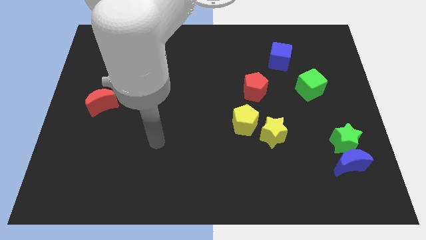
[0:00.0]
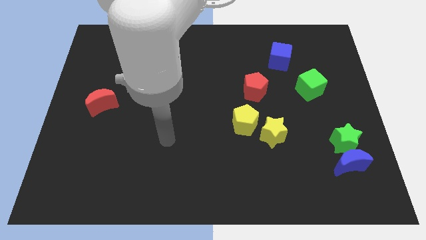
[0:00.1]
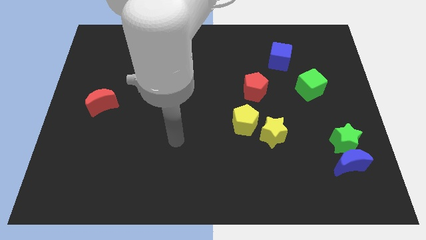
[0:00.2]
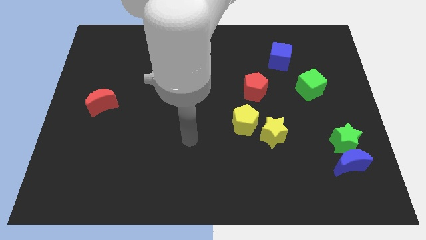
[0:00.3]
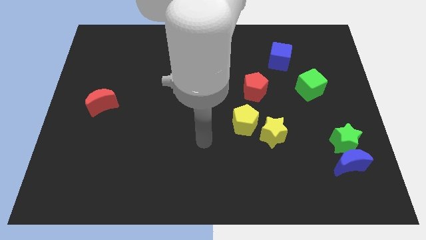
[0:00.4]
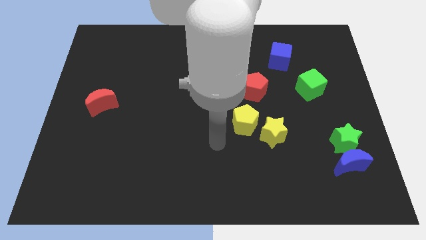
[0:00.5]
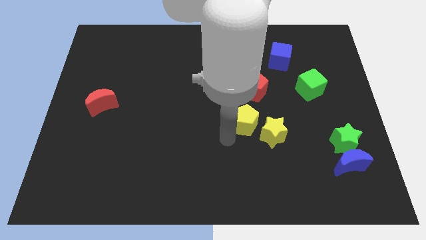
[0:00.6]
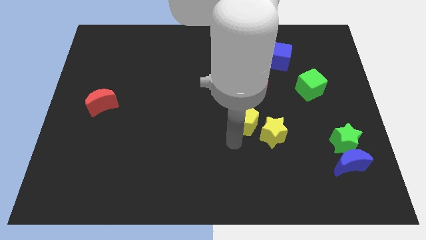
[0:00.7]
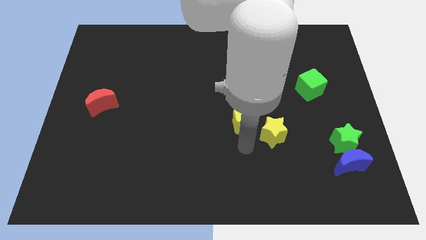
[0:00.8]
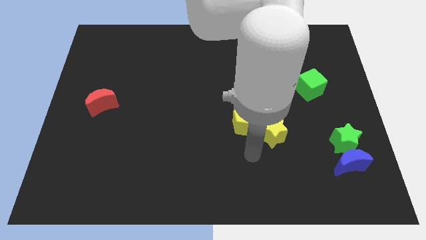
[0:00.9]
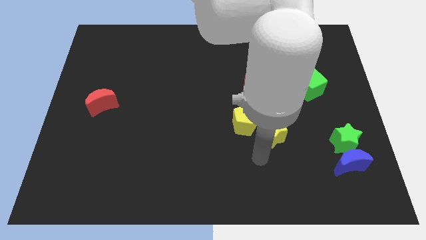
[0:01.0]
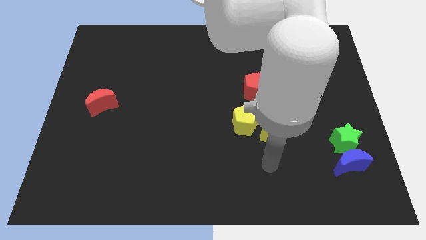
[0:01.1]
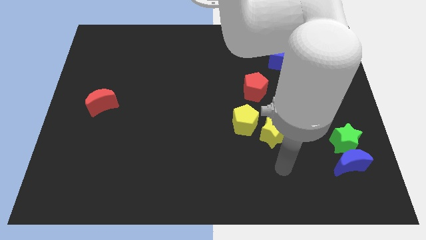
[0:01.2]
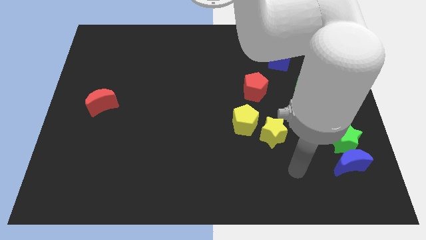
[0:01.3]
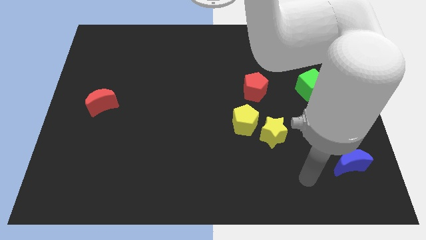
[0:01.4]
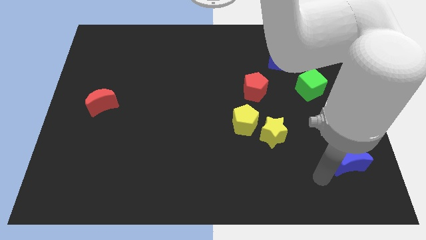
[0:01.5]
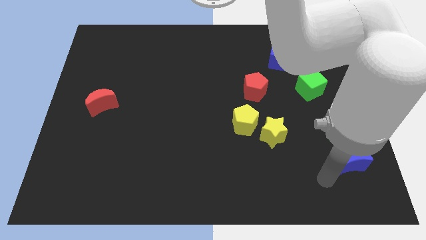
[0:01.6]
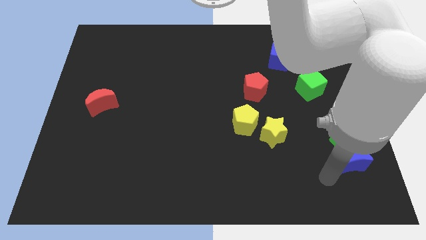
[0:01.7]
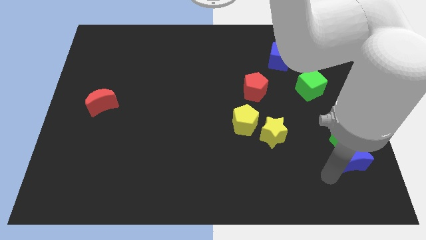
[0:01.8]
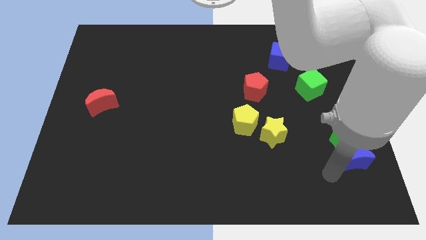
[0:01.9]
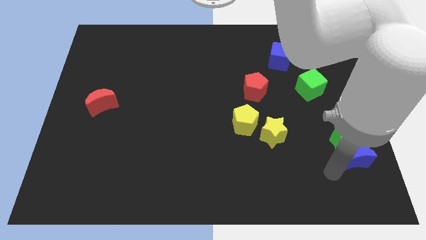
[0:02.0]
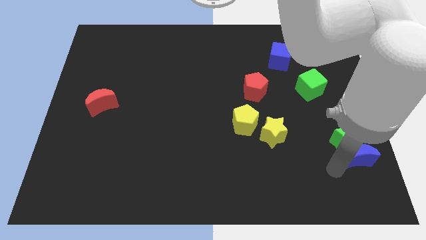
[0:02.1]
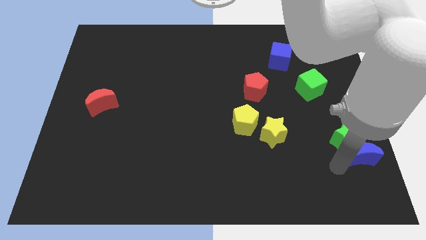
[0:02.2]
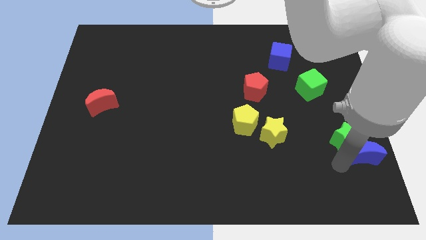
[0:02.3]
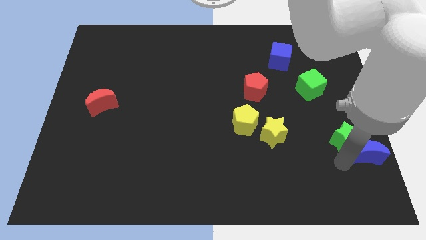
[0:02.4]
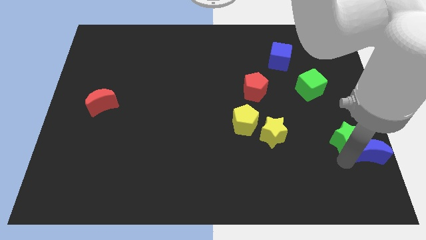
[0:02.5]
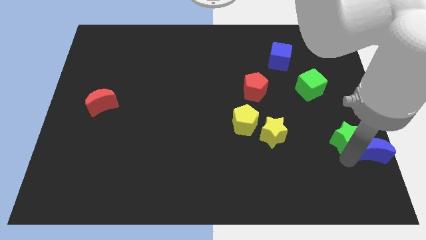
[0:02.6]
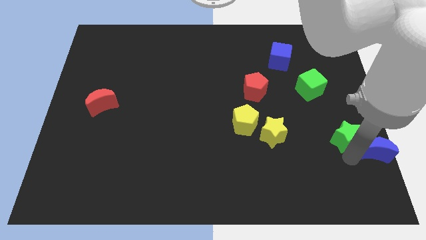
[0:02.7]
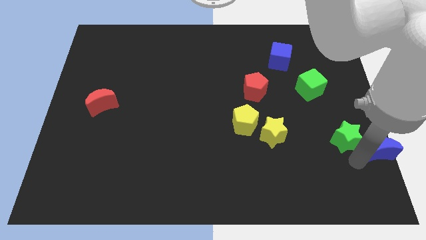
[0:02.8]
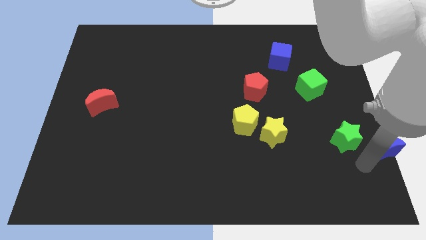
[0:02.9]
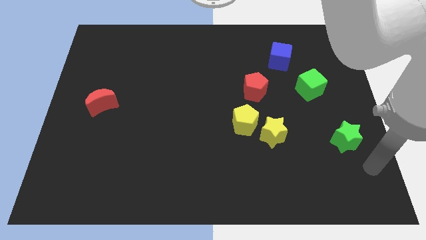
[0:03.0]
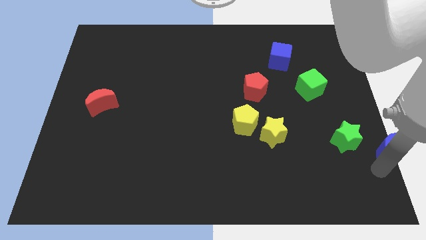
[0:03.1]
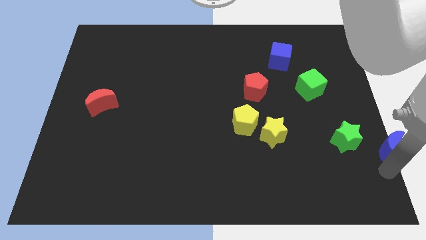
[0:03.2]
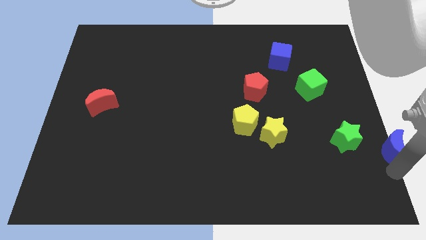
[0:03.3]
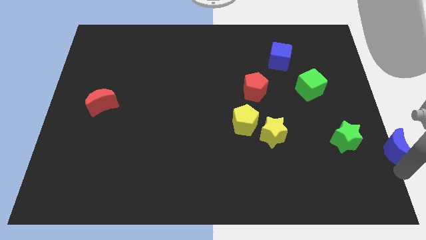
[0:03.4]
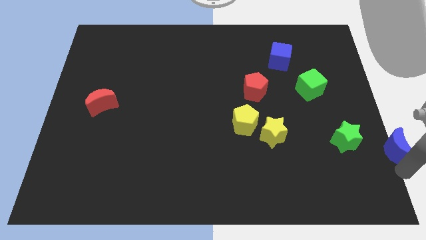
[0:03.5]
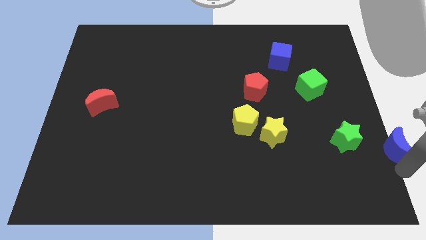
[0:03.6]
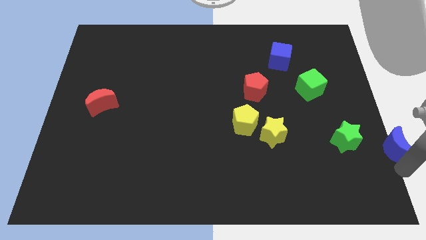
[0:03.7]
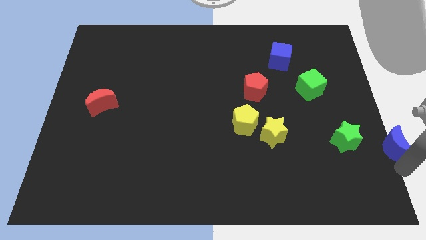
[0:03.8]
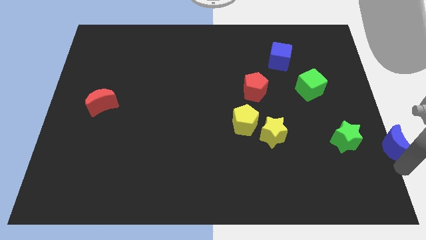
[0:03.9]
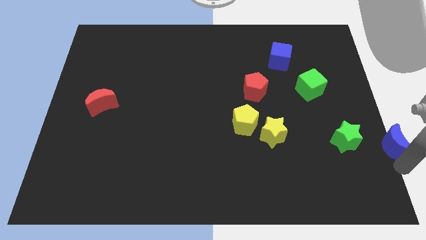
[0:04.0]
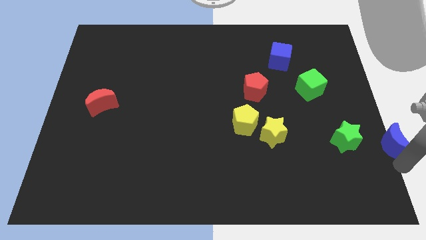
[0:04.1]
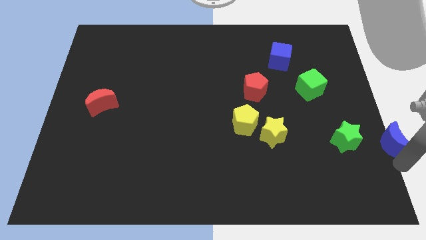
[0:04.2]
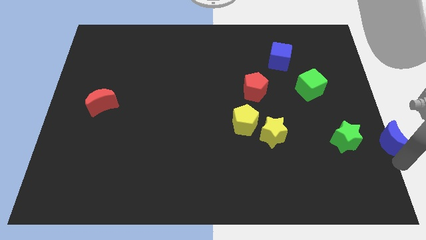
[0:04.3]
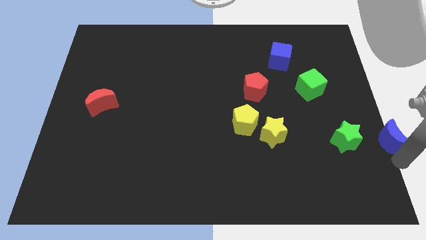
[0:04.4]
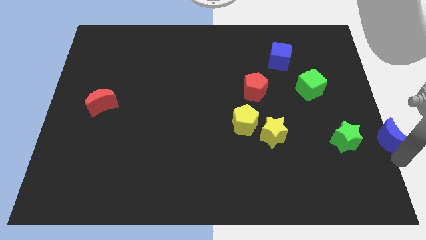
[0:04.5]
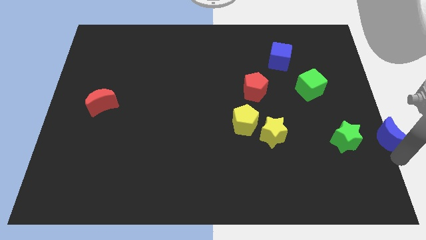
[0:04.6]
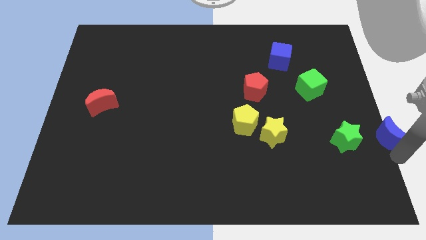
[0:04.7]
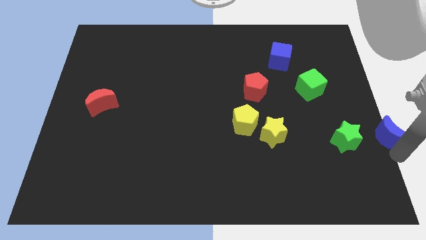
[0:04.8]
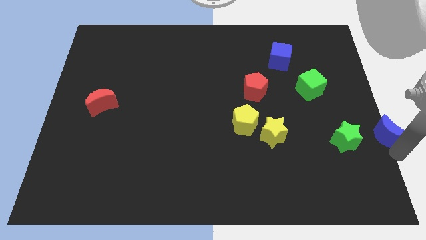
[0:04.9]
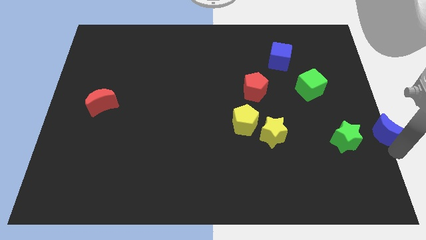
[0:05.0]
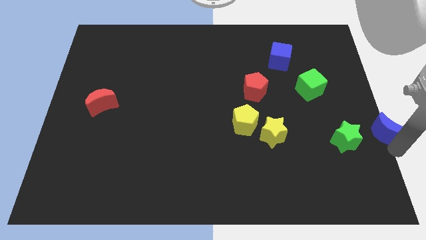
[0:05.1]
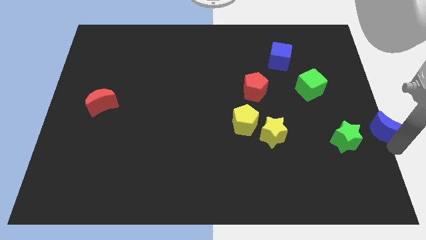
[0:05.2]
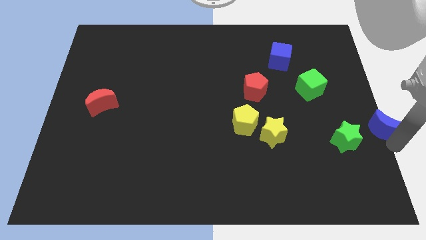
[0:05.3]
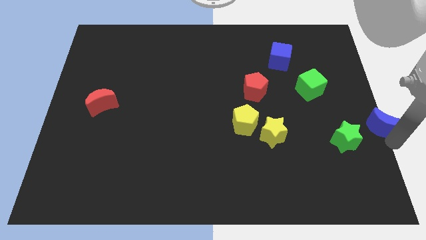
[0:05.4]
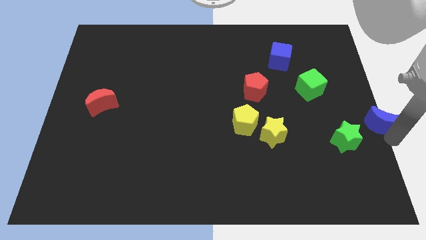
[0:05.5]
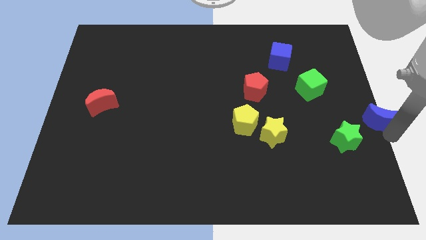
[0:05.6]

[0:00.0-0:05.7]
move the blue moon up a bit

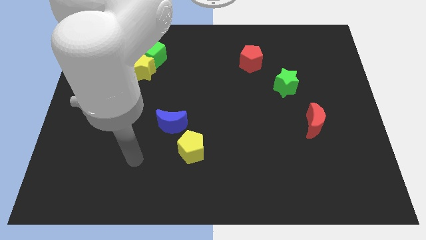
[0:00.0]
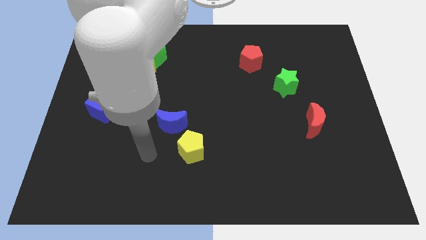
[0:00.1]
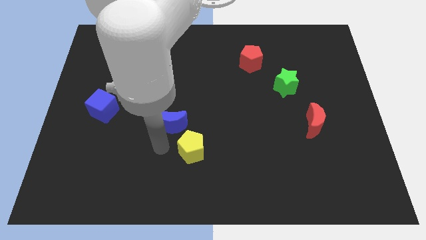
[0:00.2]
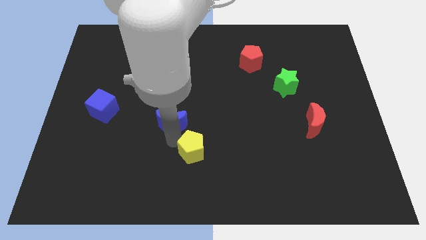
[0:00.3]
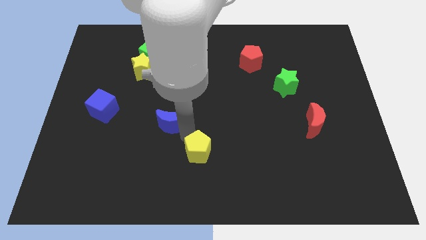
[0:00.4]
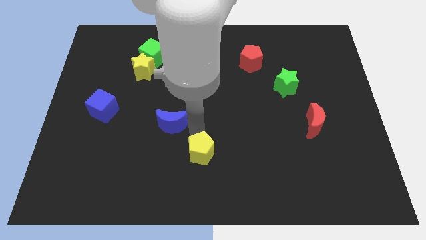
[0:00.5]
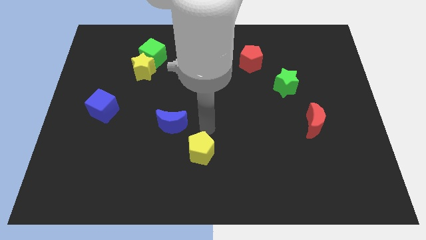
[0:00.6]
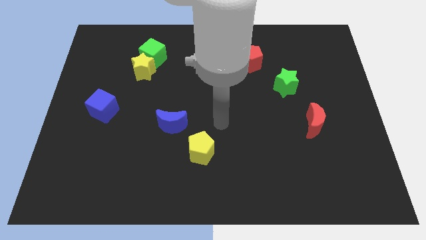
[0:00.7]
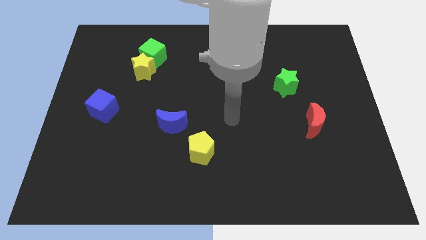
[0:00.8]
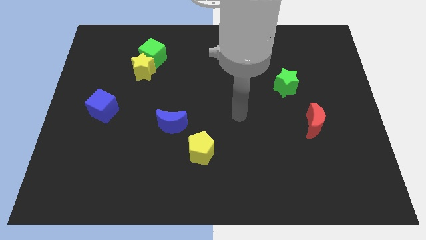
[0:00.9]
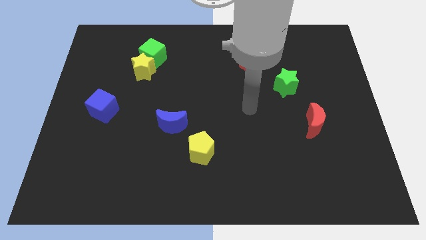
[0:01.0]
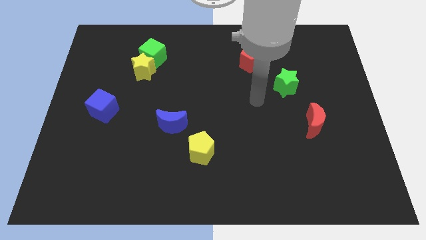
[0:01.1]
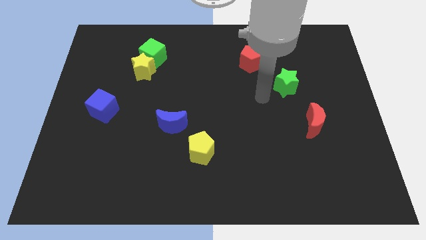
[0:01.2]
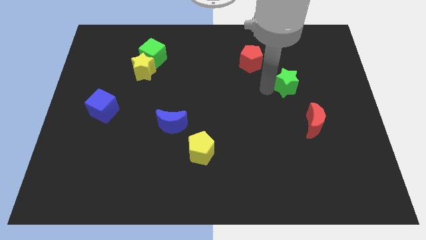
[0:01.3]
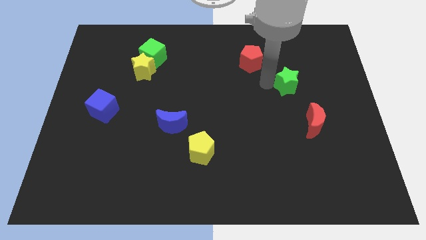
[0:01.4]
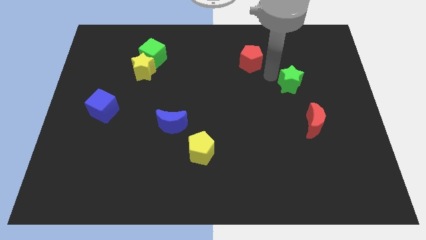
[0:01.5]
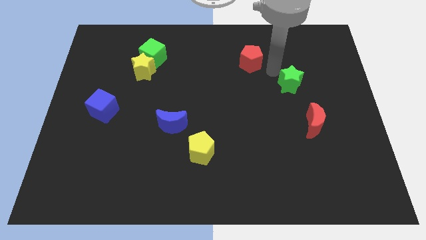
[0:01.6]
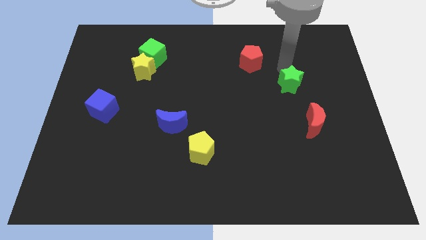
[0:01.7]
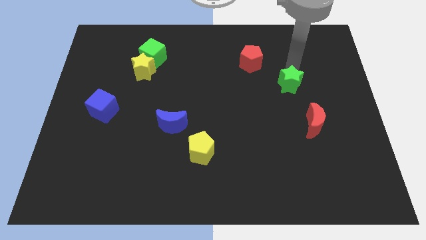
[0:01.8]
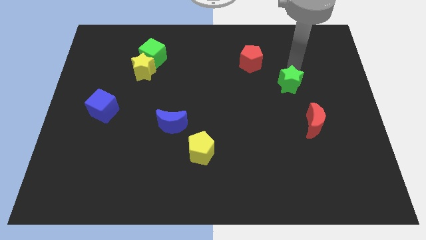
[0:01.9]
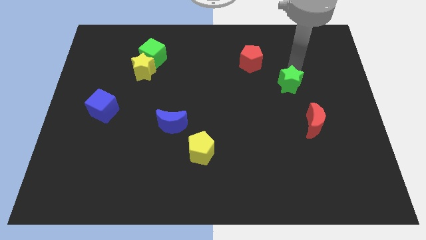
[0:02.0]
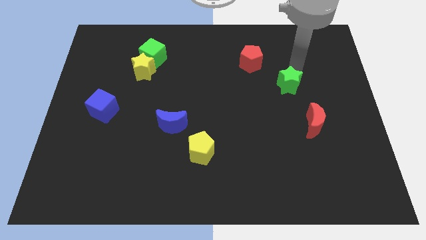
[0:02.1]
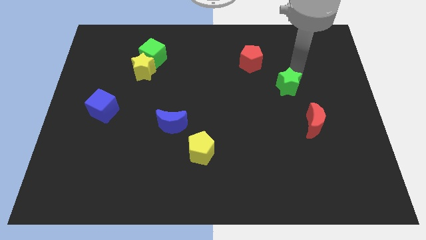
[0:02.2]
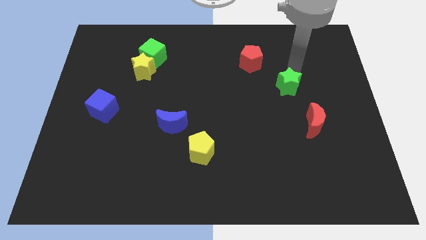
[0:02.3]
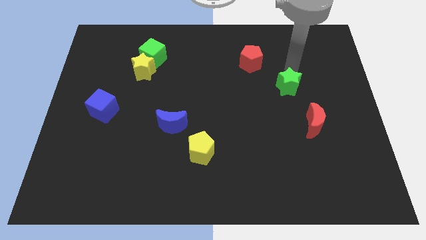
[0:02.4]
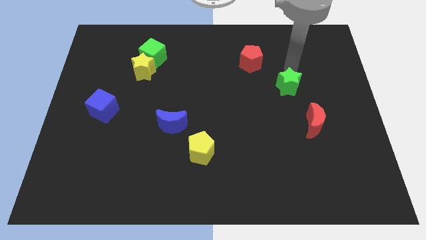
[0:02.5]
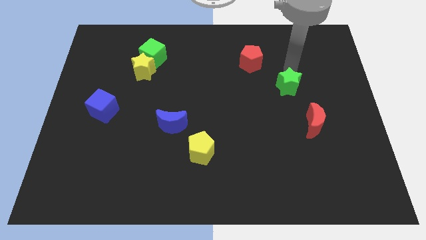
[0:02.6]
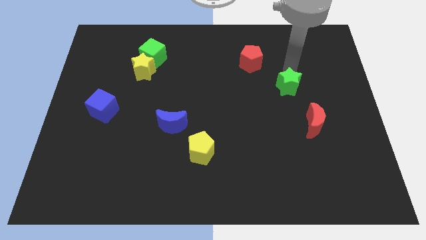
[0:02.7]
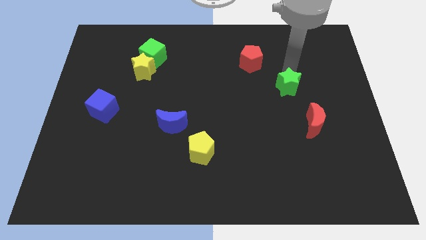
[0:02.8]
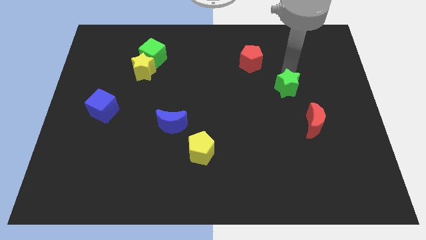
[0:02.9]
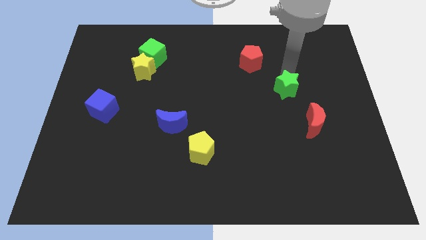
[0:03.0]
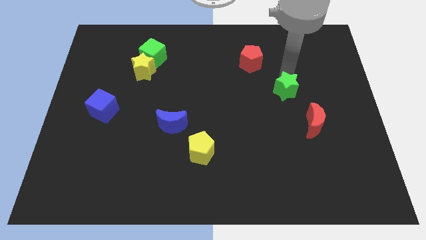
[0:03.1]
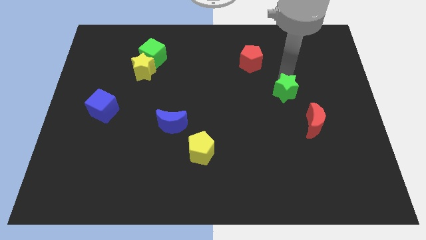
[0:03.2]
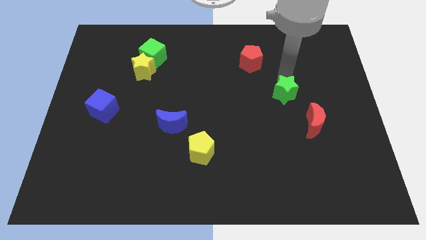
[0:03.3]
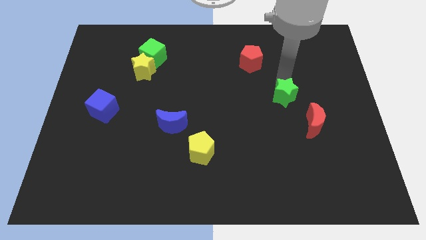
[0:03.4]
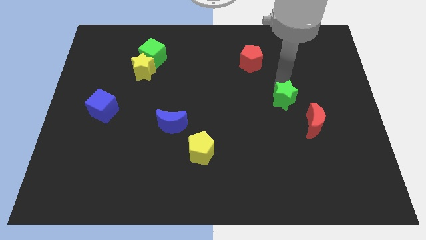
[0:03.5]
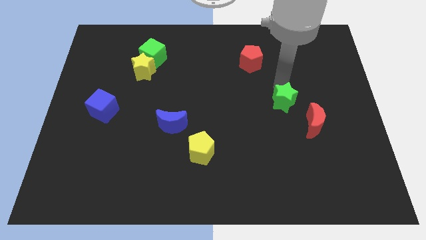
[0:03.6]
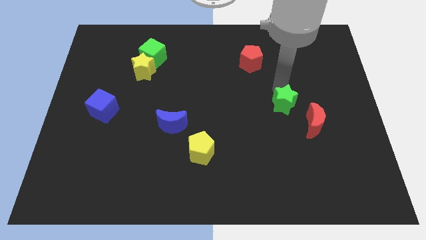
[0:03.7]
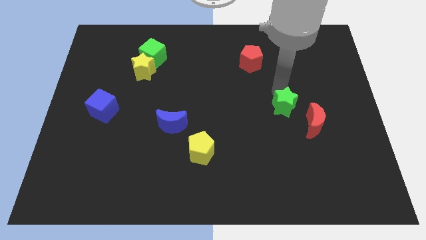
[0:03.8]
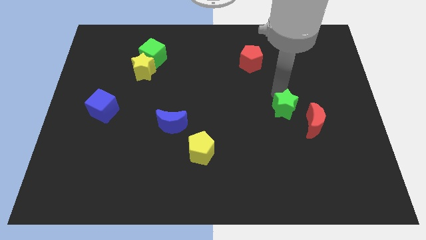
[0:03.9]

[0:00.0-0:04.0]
slide the green star somewhat down
